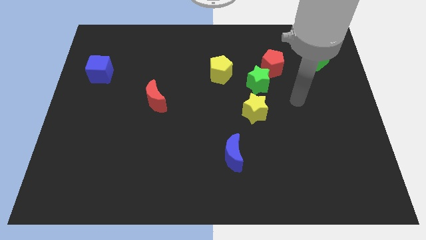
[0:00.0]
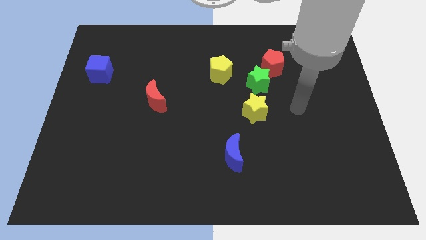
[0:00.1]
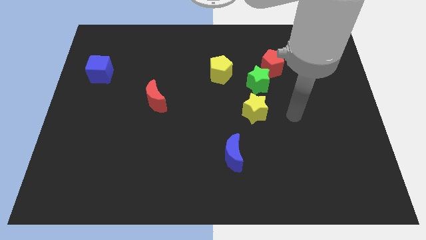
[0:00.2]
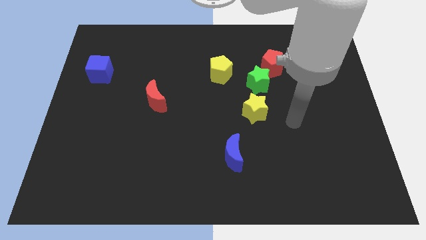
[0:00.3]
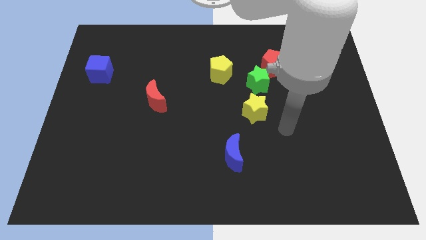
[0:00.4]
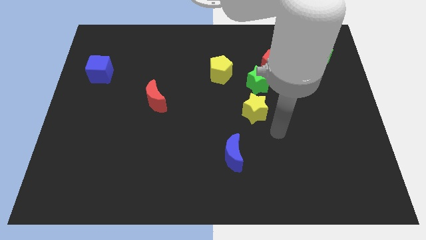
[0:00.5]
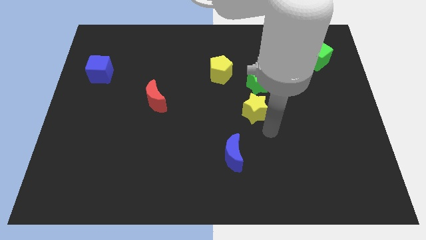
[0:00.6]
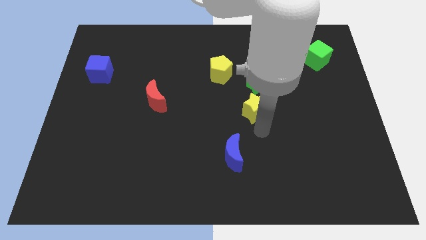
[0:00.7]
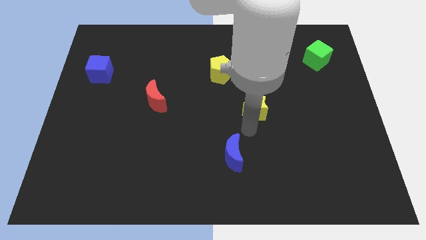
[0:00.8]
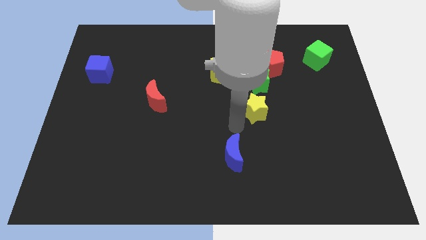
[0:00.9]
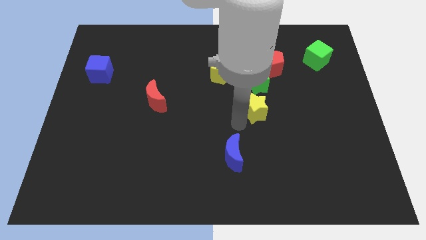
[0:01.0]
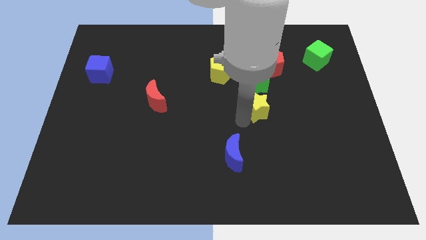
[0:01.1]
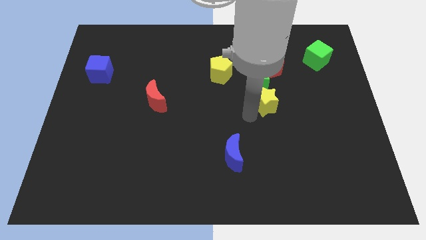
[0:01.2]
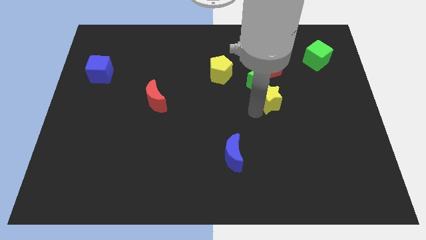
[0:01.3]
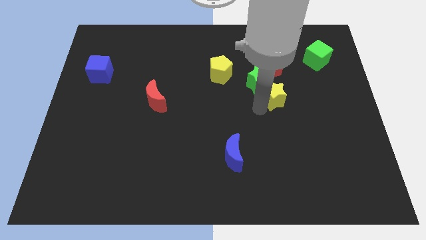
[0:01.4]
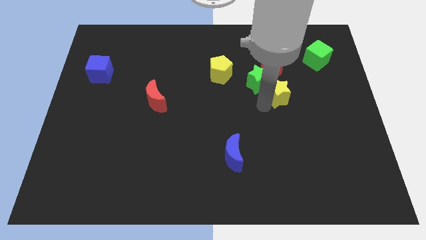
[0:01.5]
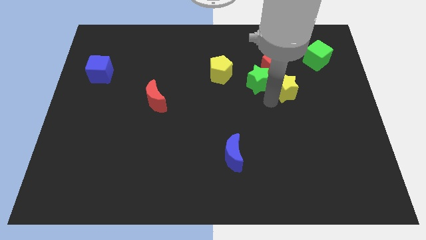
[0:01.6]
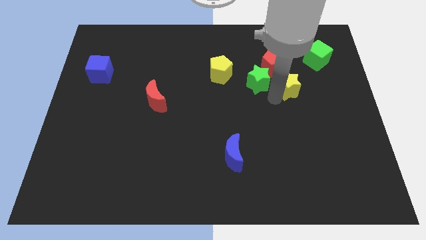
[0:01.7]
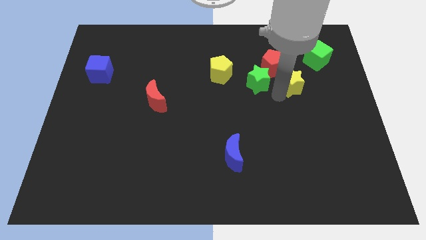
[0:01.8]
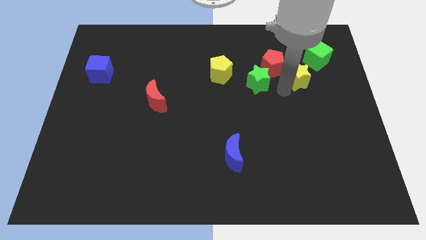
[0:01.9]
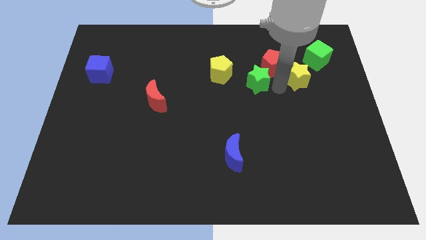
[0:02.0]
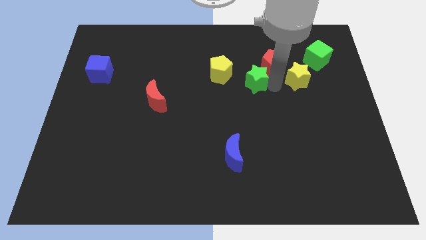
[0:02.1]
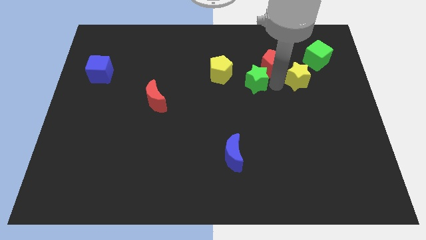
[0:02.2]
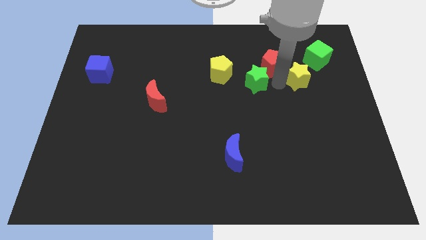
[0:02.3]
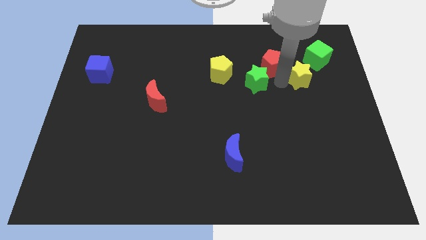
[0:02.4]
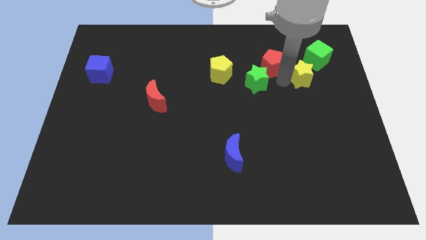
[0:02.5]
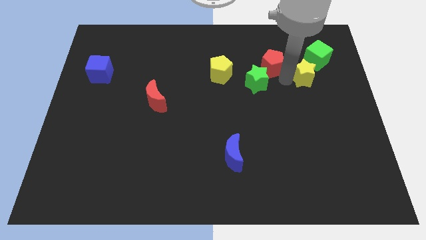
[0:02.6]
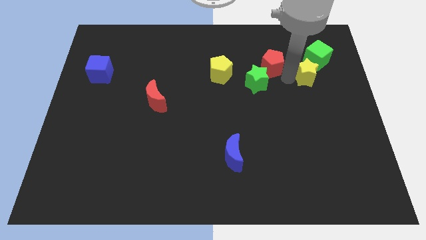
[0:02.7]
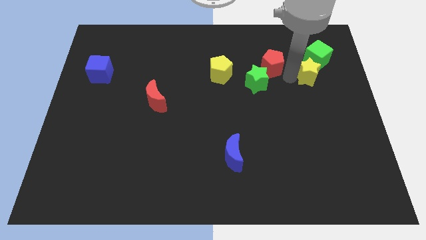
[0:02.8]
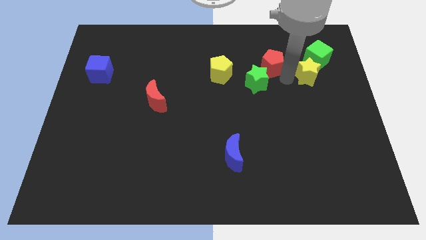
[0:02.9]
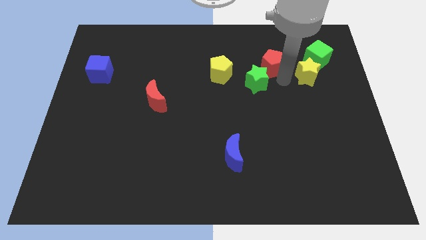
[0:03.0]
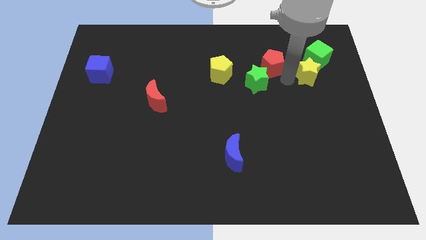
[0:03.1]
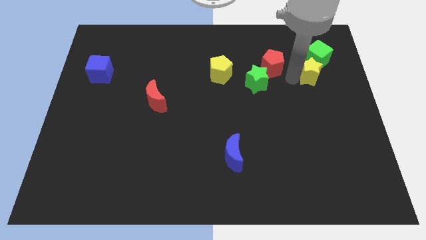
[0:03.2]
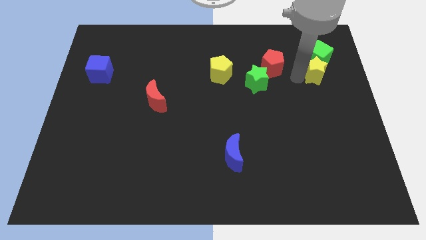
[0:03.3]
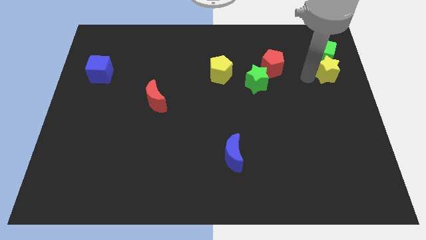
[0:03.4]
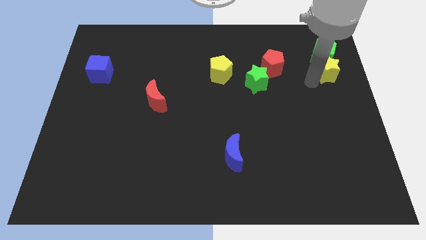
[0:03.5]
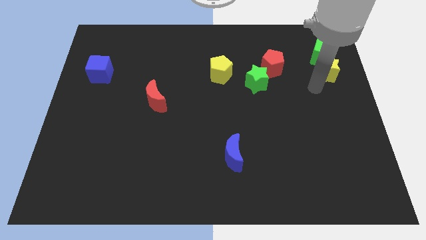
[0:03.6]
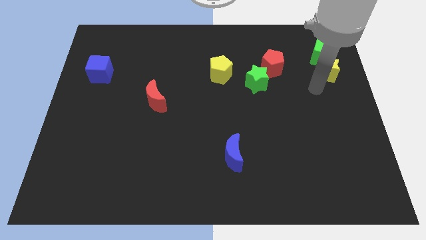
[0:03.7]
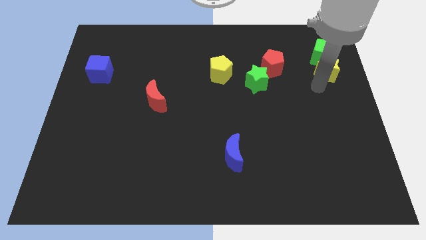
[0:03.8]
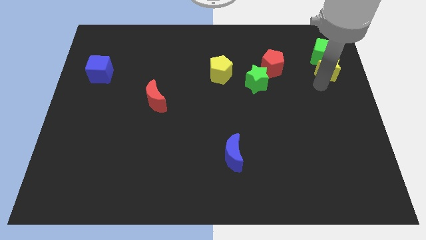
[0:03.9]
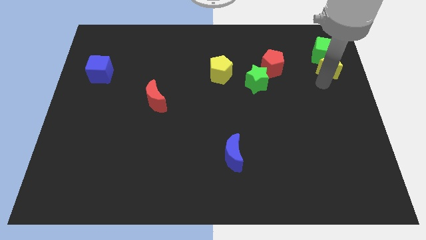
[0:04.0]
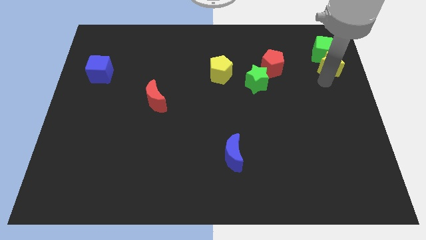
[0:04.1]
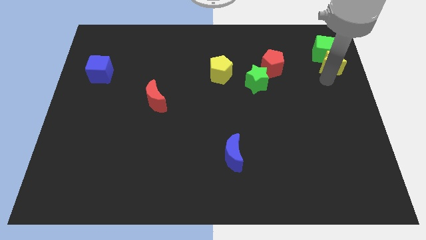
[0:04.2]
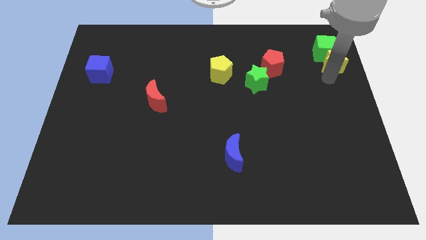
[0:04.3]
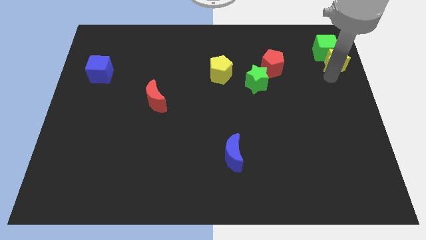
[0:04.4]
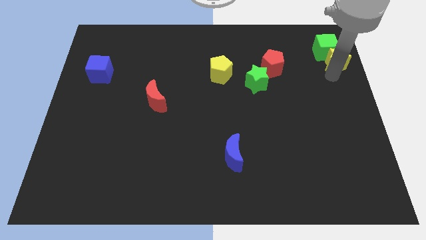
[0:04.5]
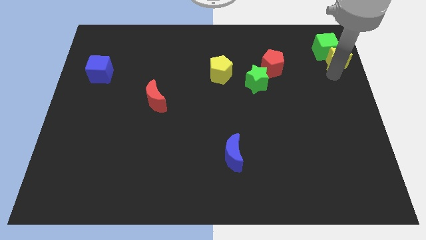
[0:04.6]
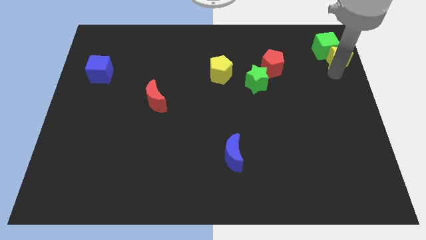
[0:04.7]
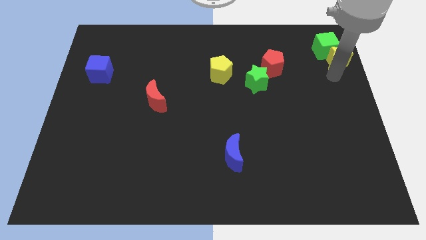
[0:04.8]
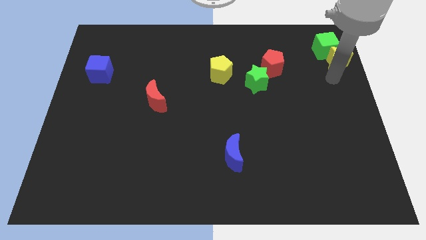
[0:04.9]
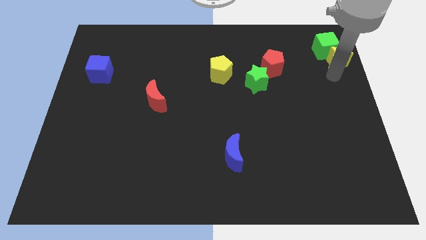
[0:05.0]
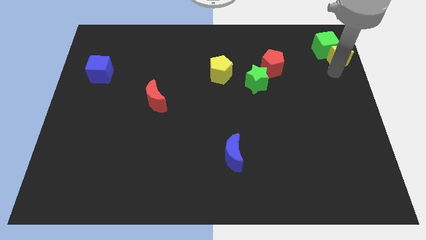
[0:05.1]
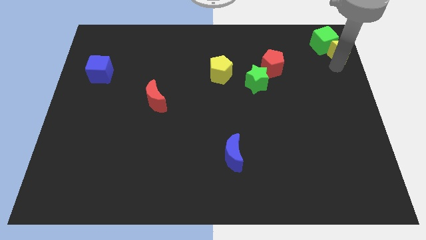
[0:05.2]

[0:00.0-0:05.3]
slide the yellow star to the top right
